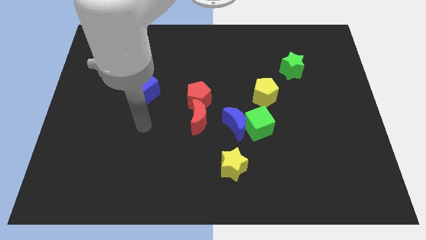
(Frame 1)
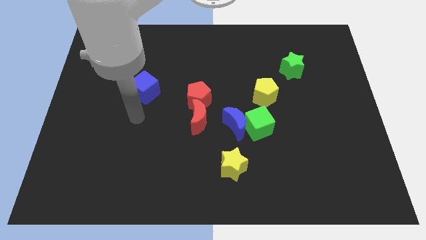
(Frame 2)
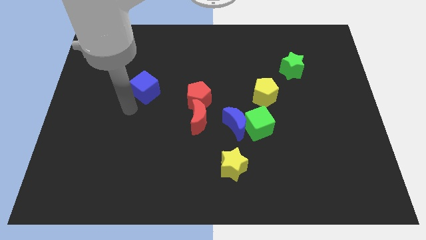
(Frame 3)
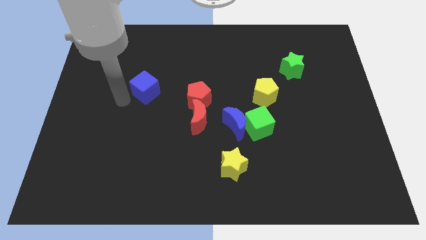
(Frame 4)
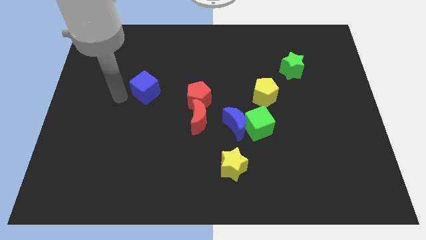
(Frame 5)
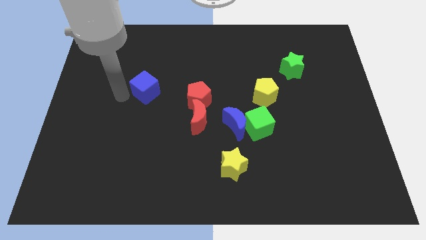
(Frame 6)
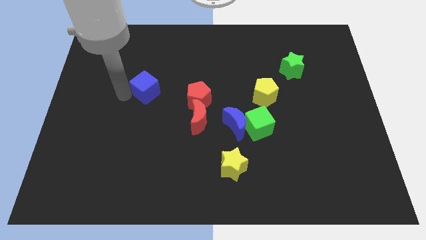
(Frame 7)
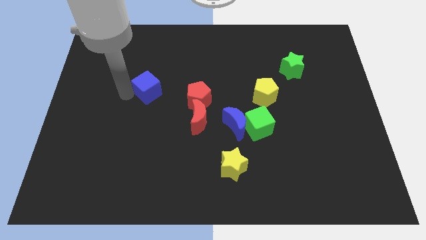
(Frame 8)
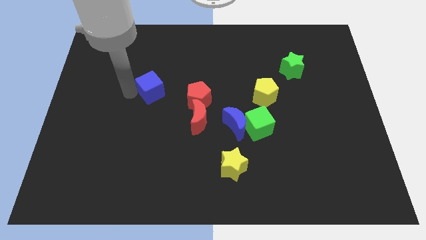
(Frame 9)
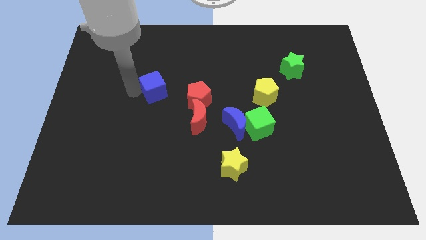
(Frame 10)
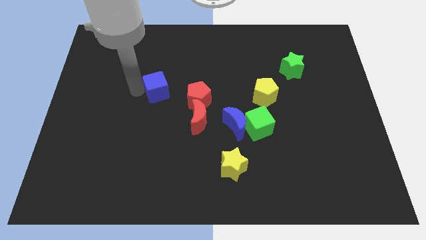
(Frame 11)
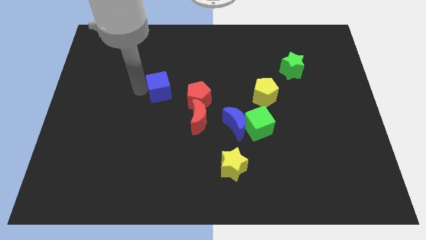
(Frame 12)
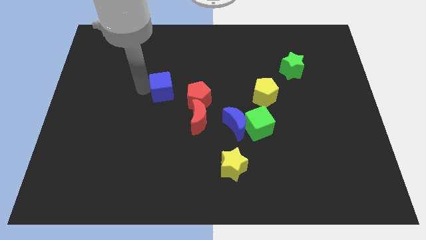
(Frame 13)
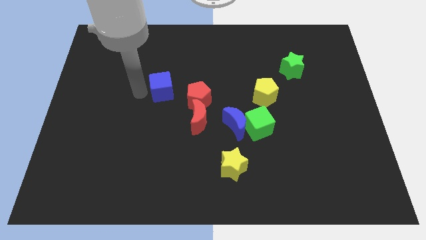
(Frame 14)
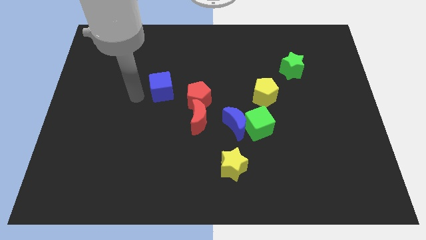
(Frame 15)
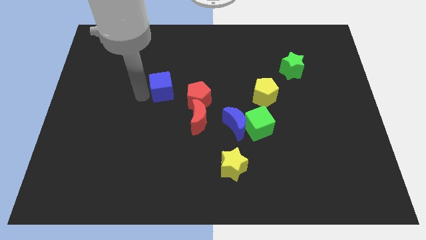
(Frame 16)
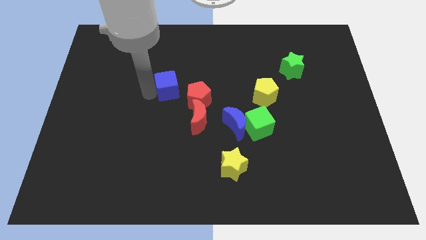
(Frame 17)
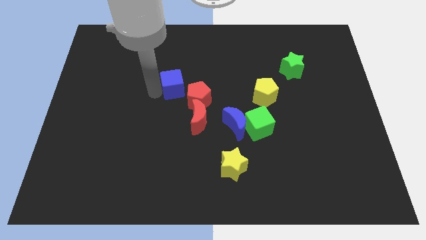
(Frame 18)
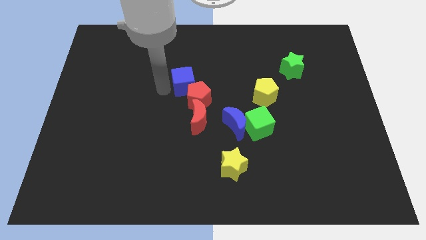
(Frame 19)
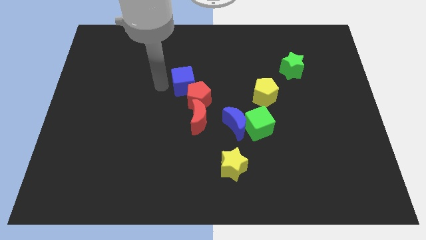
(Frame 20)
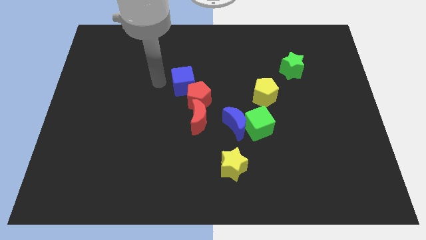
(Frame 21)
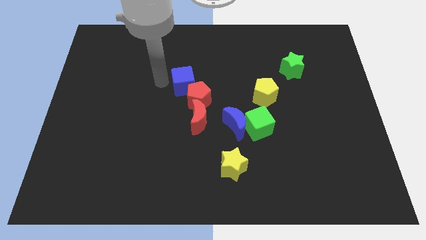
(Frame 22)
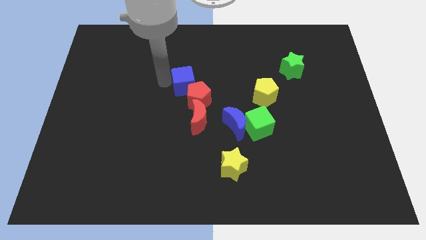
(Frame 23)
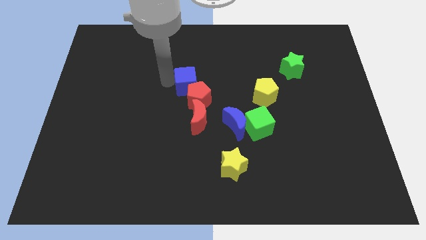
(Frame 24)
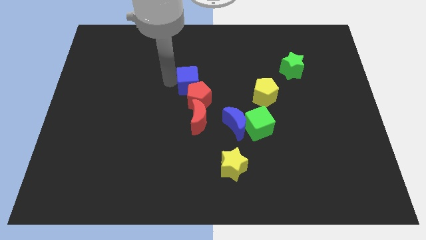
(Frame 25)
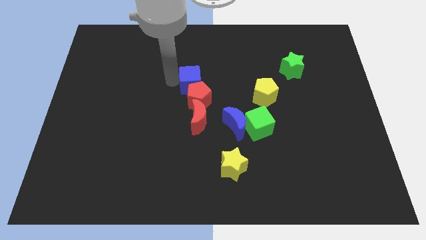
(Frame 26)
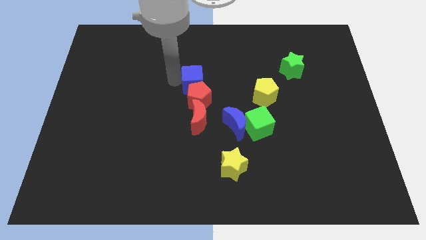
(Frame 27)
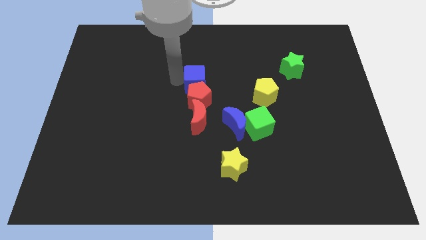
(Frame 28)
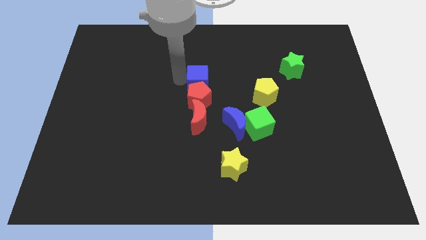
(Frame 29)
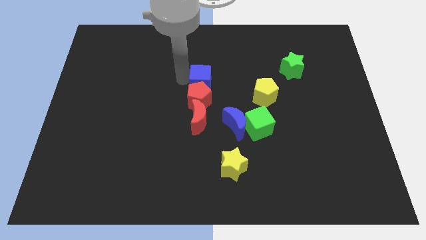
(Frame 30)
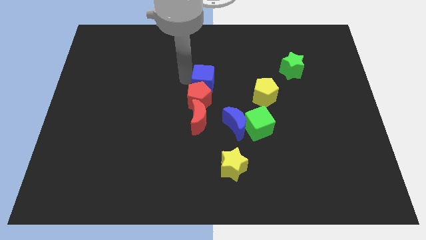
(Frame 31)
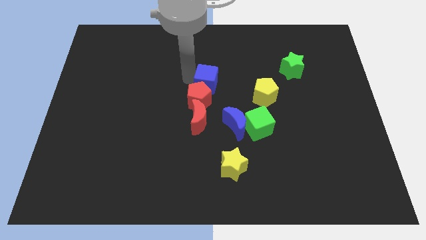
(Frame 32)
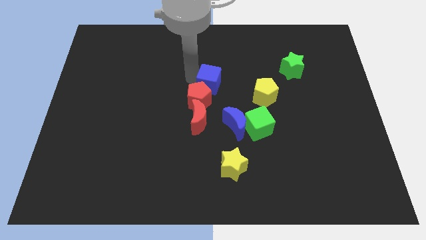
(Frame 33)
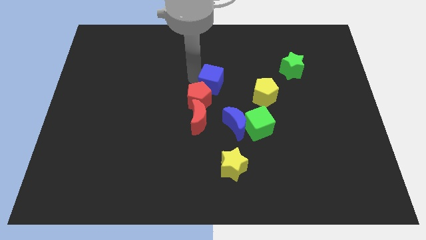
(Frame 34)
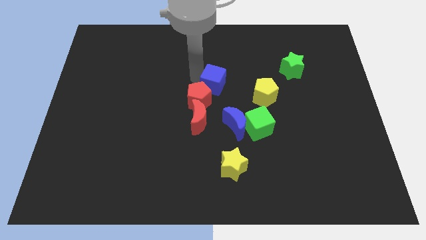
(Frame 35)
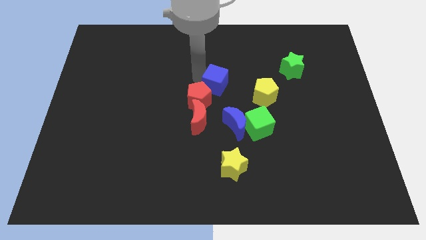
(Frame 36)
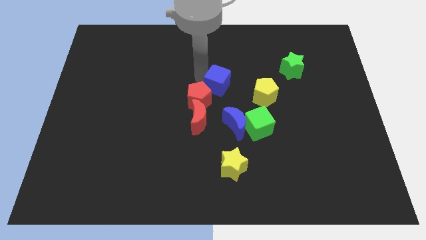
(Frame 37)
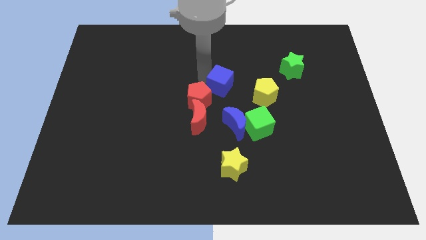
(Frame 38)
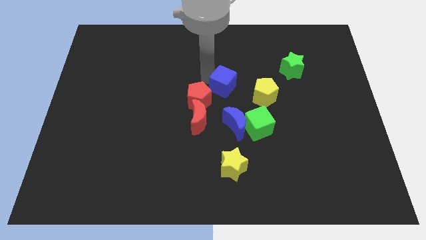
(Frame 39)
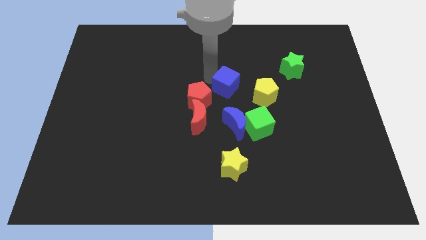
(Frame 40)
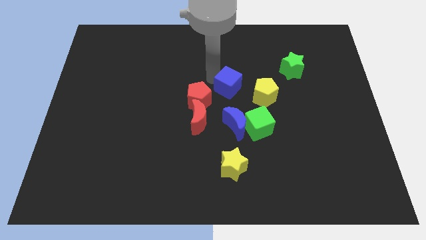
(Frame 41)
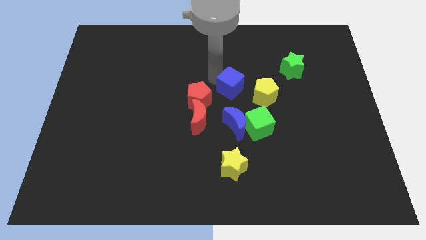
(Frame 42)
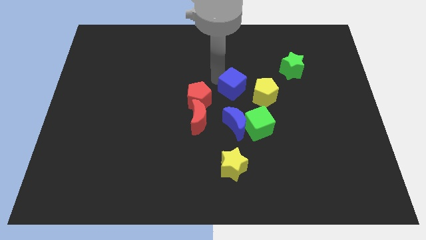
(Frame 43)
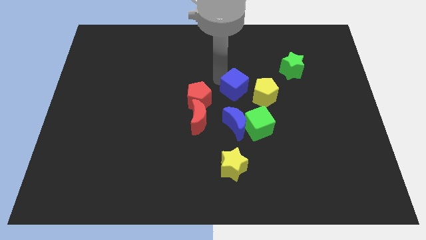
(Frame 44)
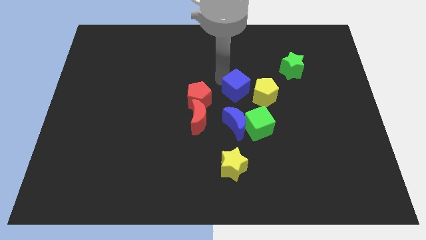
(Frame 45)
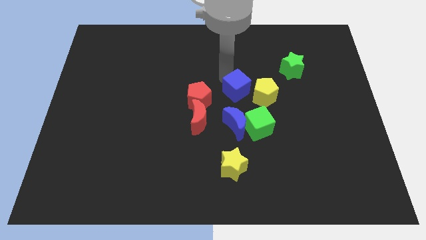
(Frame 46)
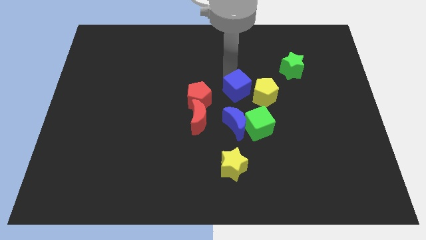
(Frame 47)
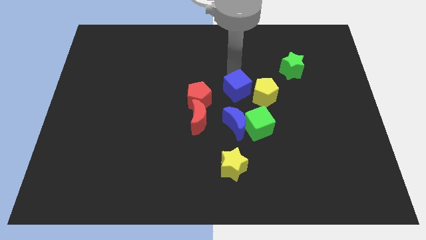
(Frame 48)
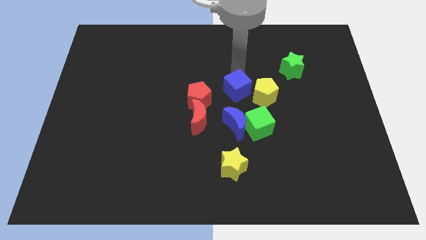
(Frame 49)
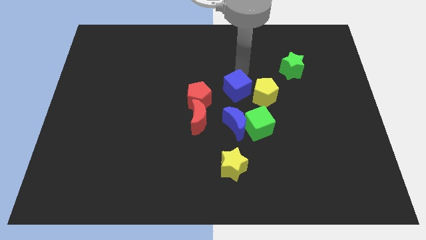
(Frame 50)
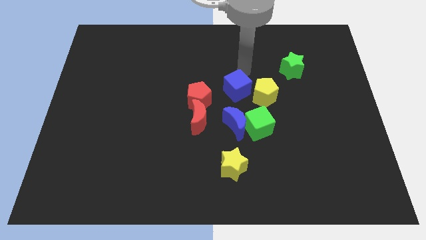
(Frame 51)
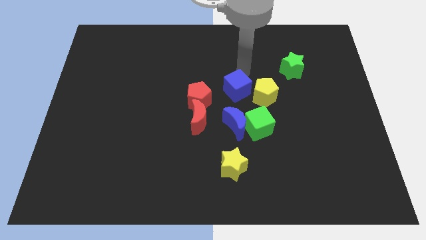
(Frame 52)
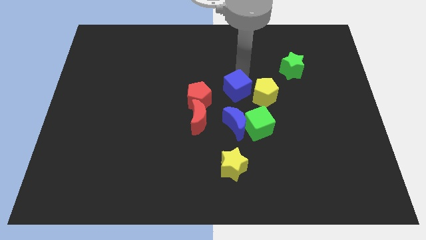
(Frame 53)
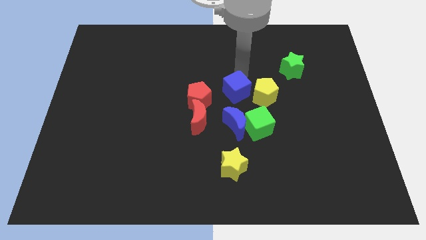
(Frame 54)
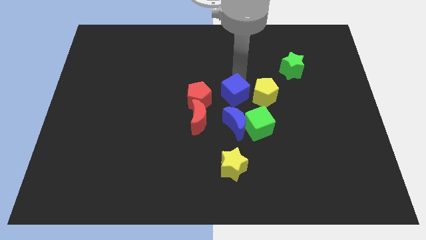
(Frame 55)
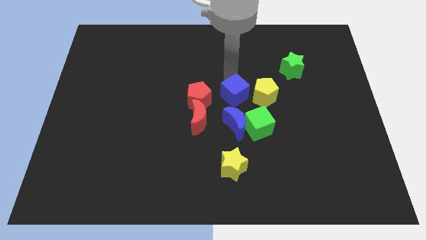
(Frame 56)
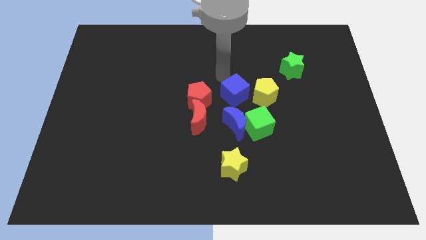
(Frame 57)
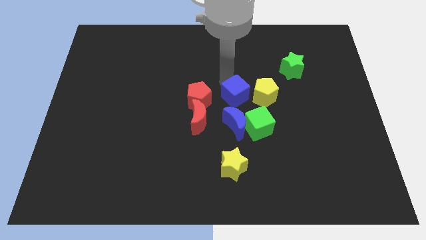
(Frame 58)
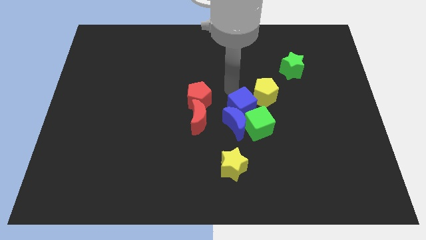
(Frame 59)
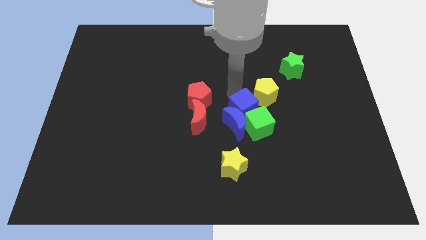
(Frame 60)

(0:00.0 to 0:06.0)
push the blue cube towards the green cube

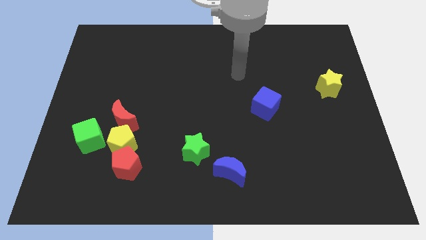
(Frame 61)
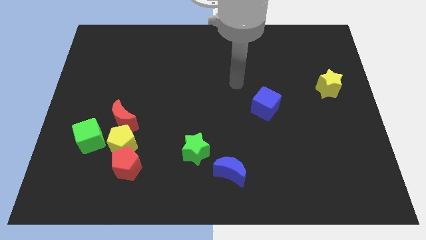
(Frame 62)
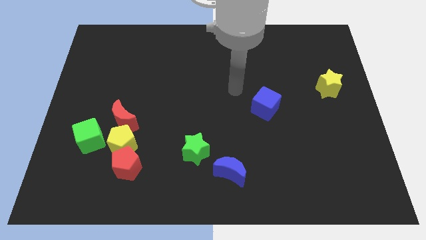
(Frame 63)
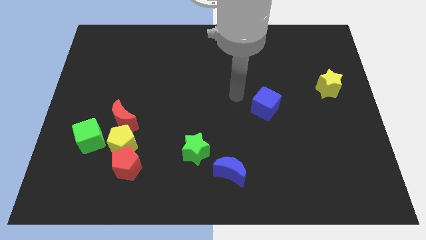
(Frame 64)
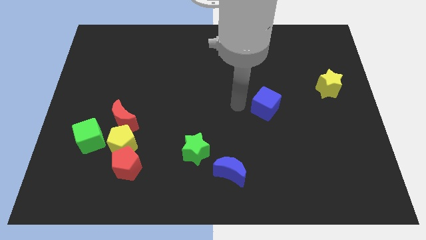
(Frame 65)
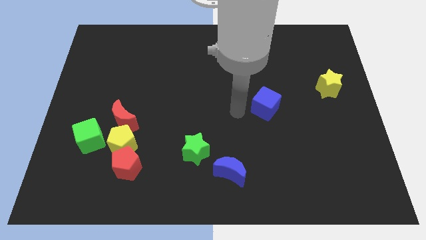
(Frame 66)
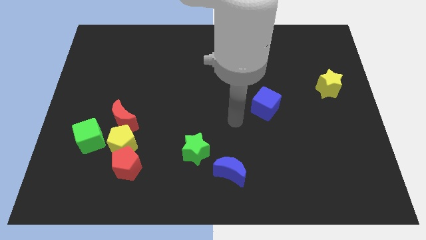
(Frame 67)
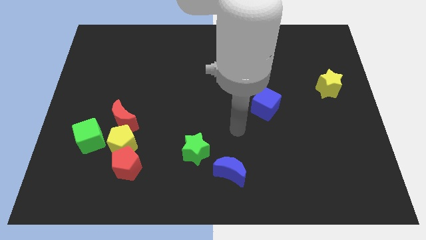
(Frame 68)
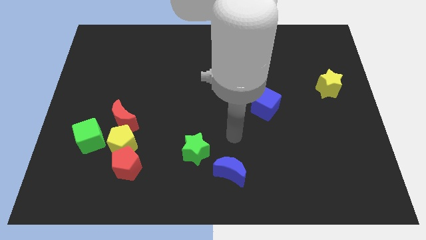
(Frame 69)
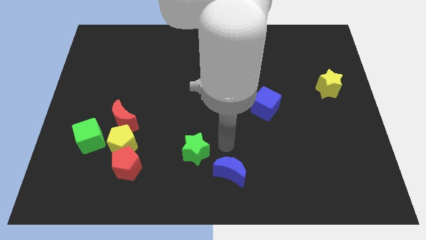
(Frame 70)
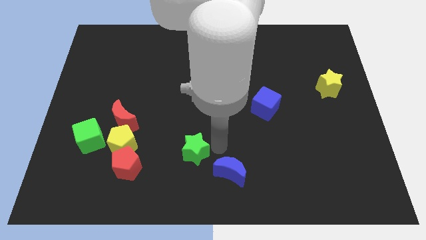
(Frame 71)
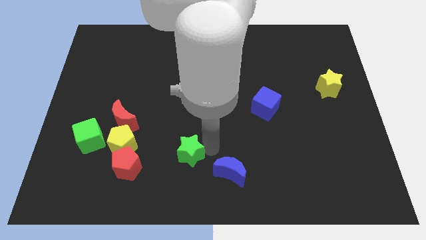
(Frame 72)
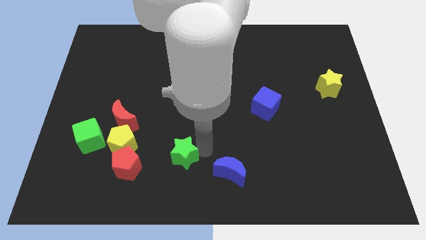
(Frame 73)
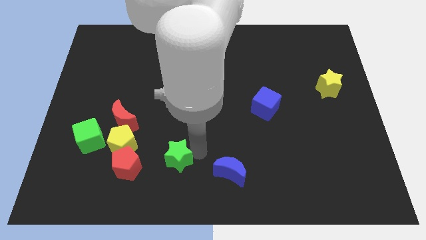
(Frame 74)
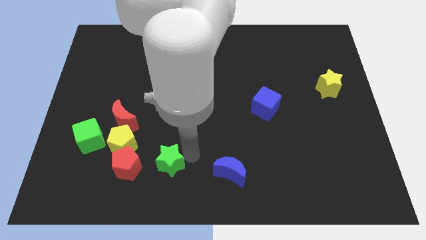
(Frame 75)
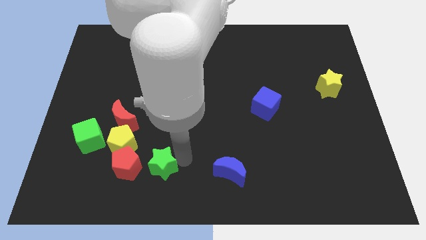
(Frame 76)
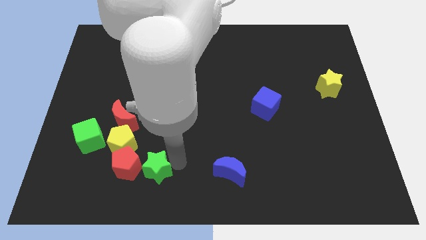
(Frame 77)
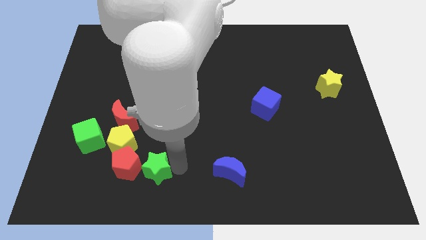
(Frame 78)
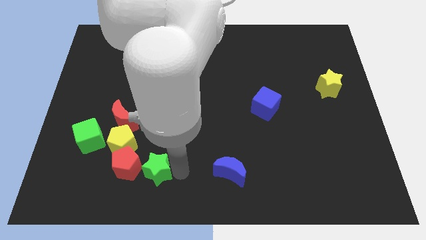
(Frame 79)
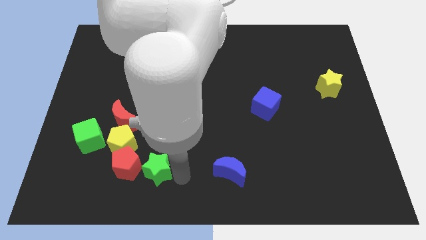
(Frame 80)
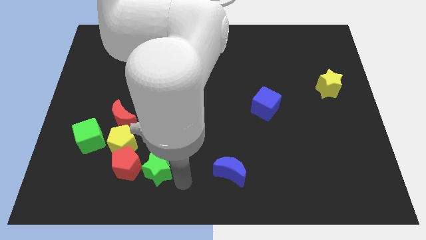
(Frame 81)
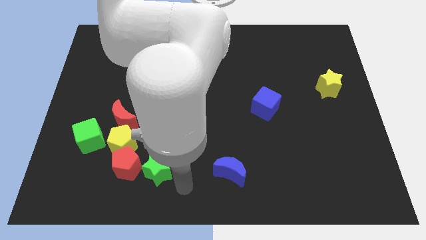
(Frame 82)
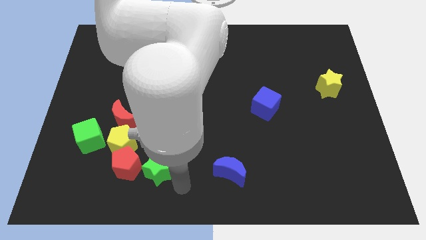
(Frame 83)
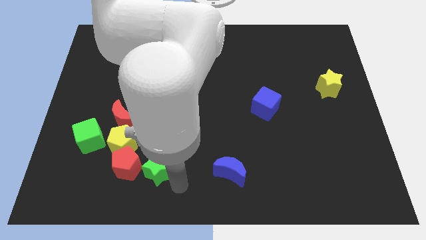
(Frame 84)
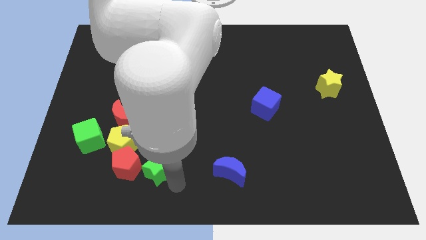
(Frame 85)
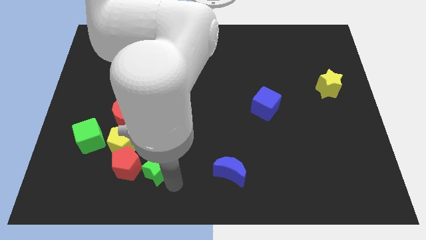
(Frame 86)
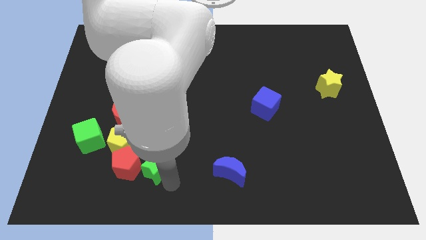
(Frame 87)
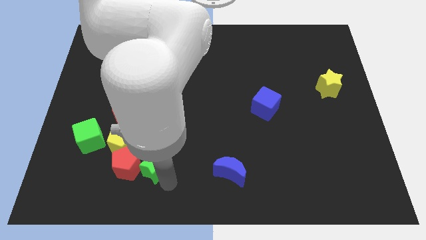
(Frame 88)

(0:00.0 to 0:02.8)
push the green star close to the red pentagon
